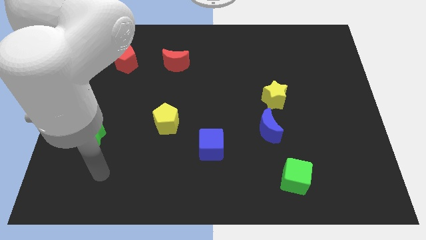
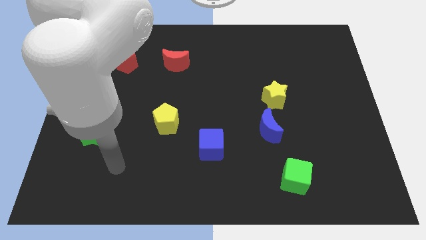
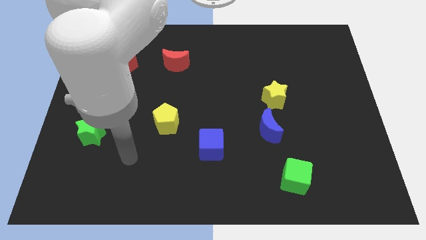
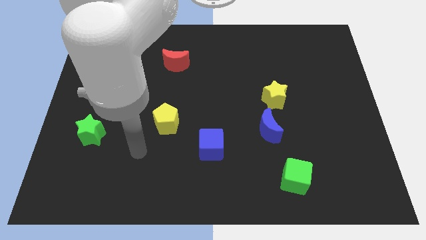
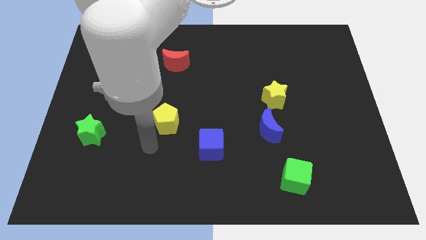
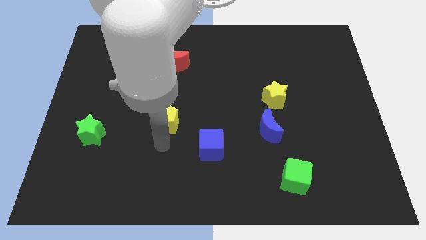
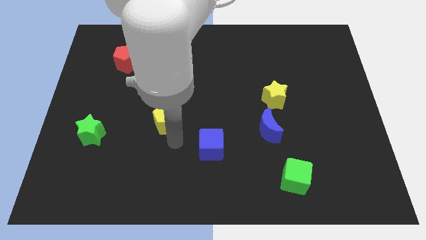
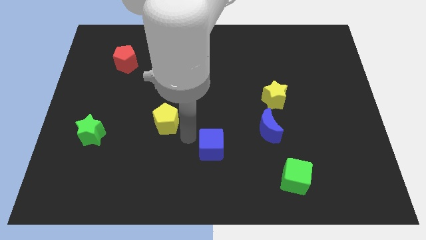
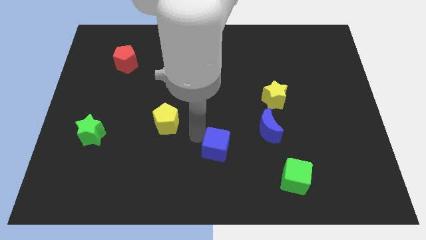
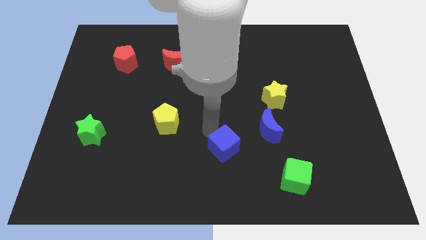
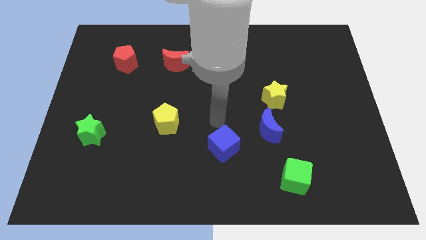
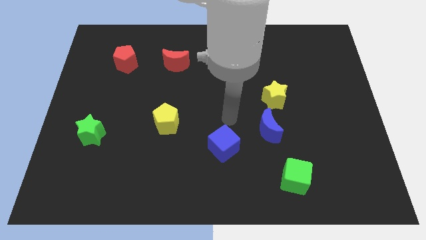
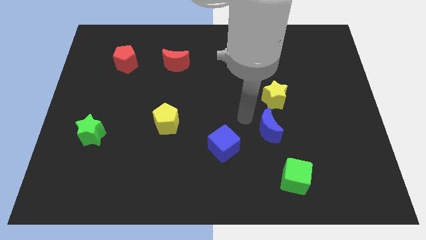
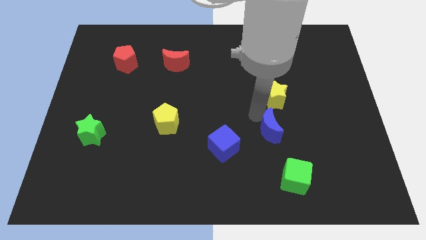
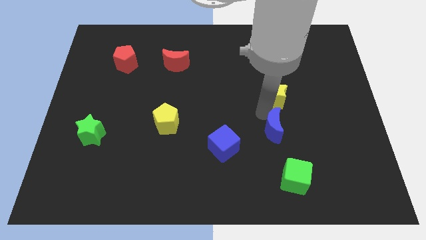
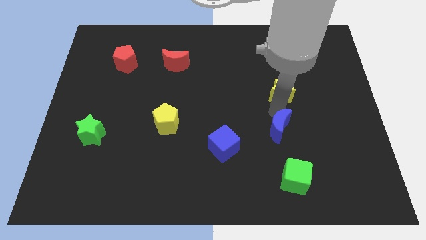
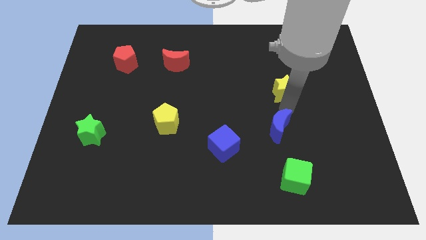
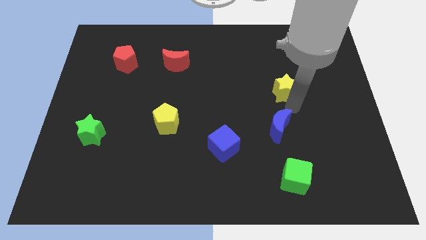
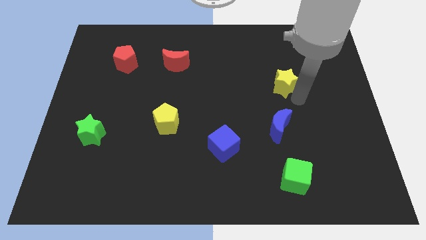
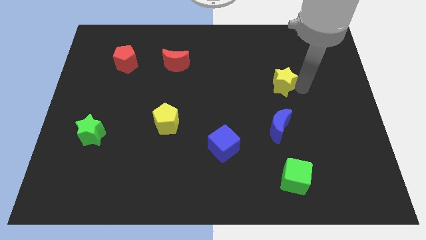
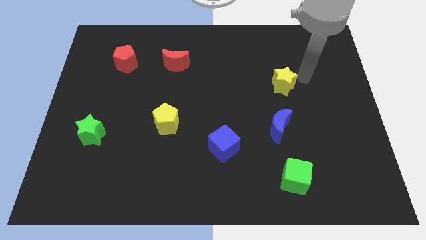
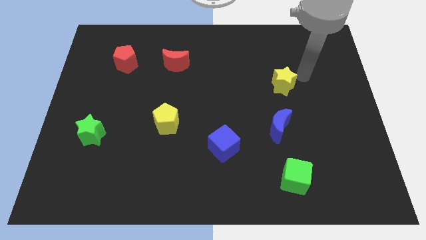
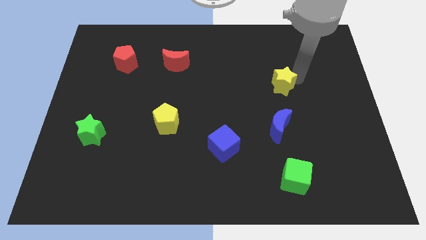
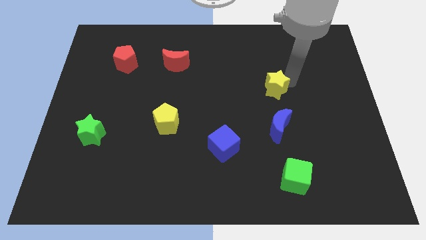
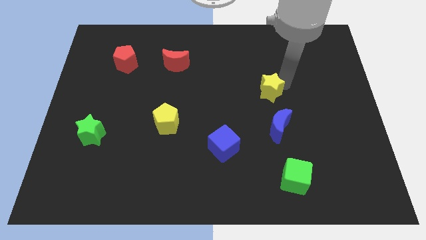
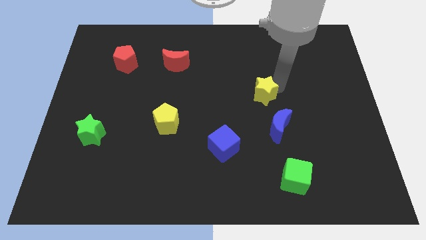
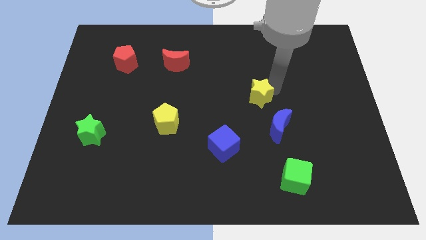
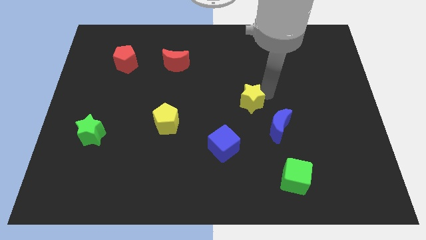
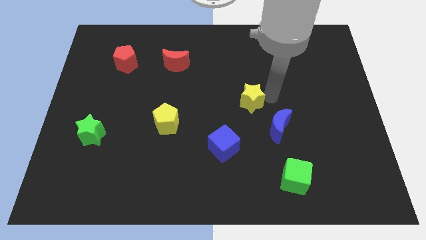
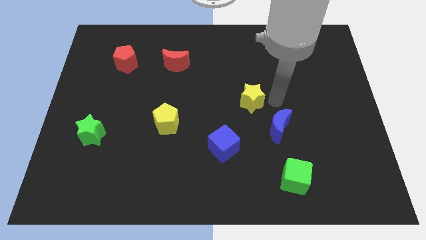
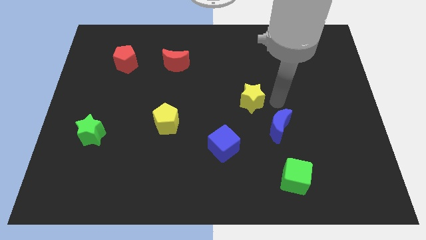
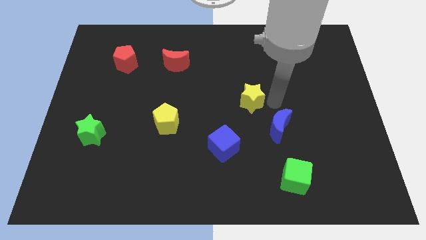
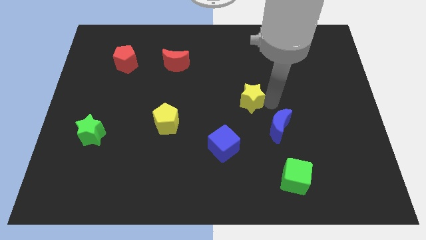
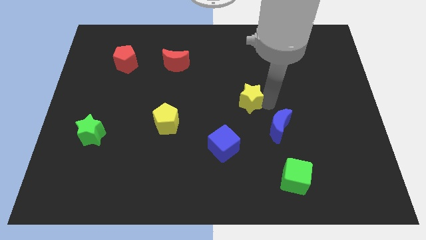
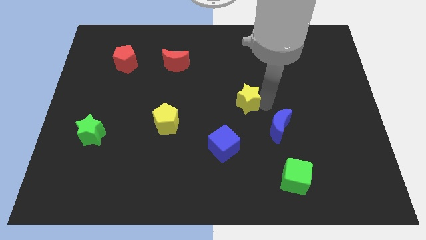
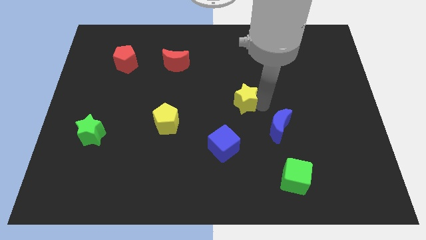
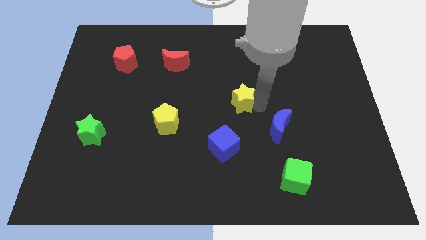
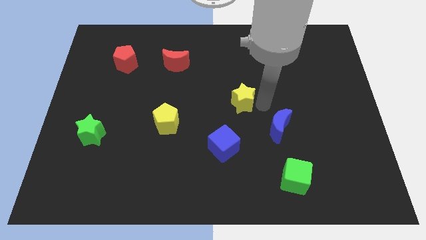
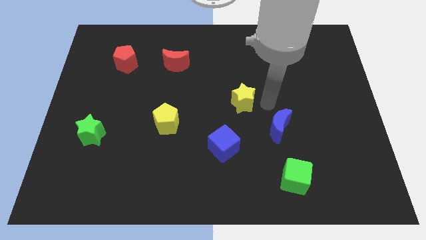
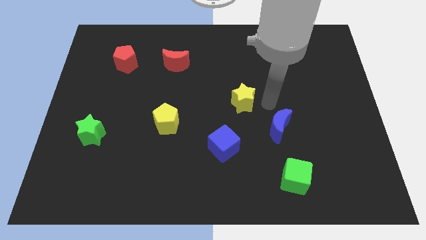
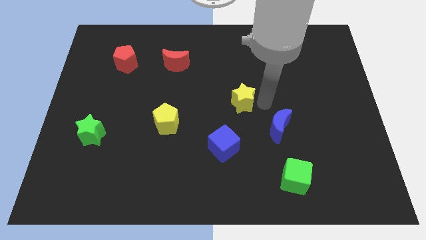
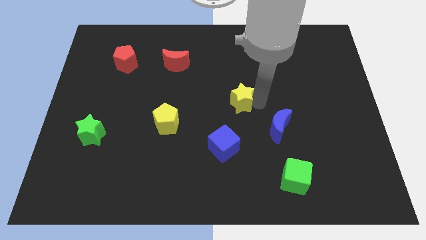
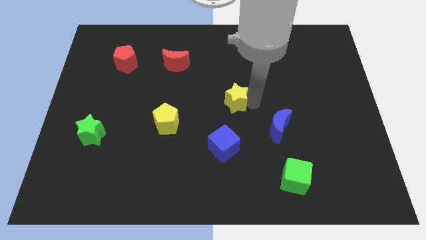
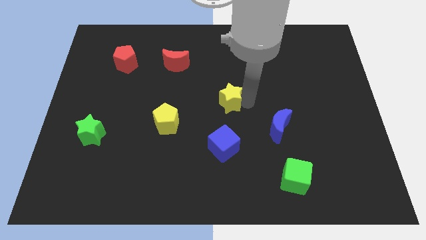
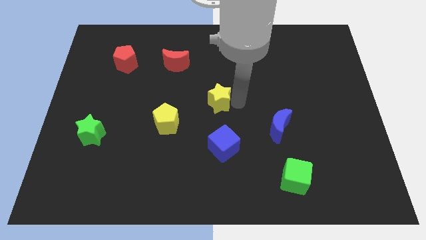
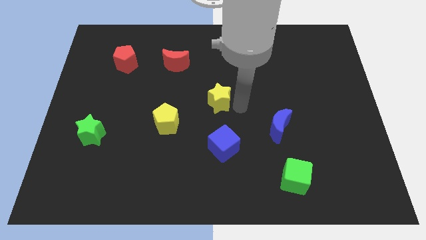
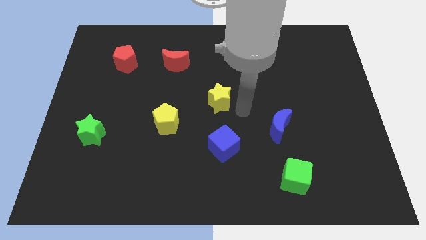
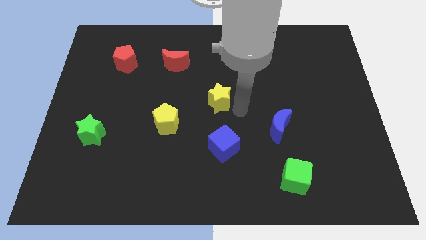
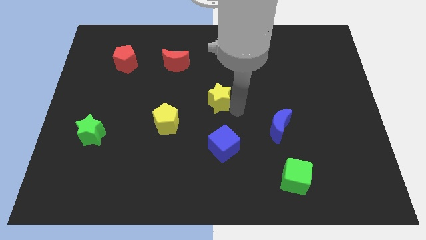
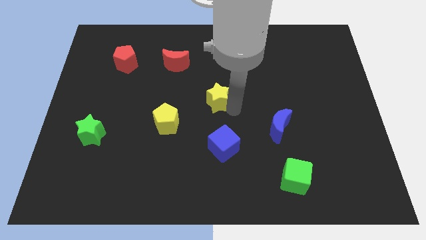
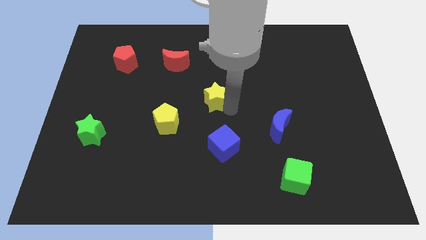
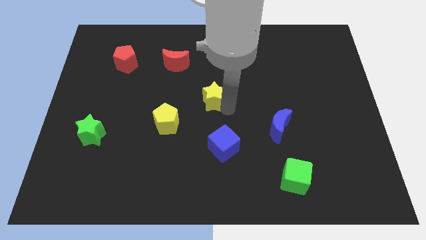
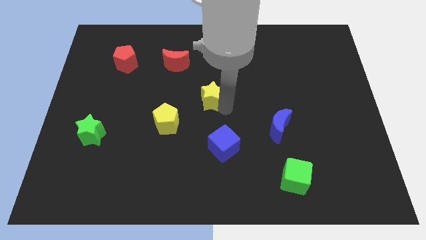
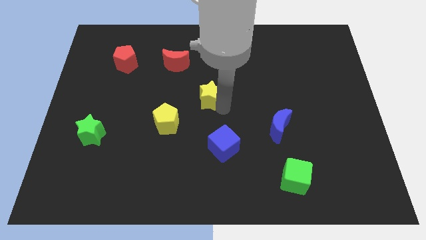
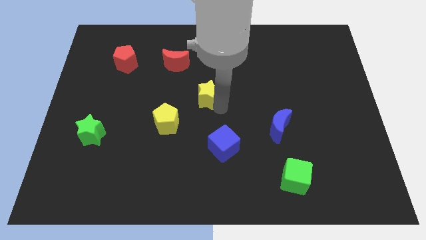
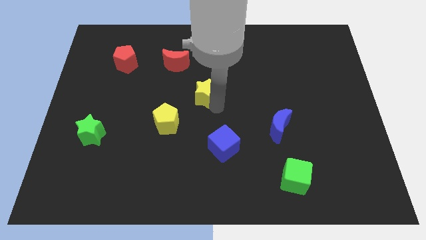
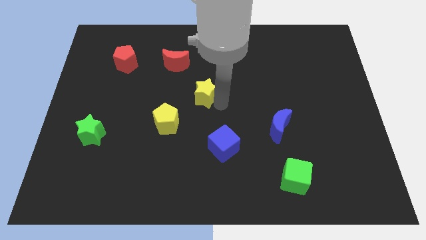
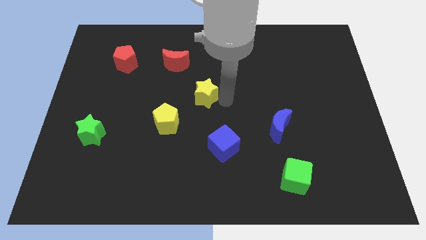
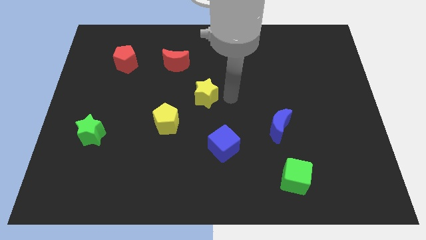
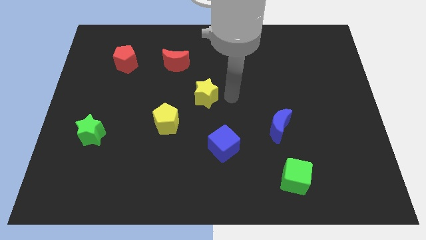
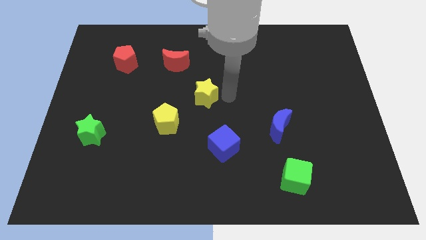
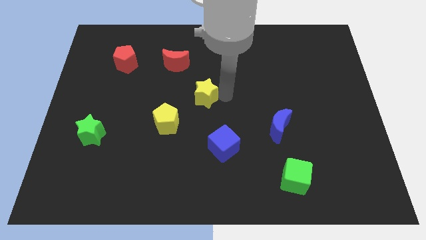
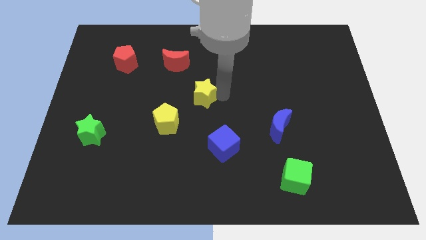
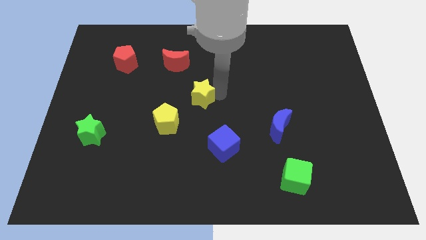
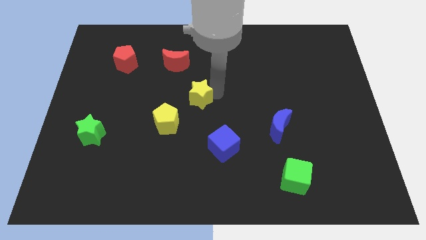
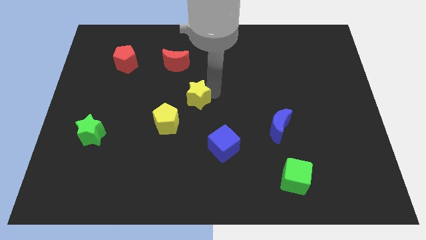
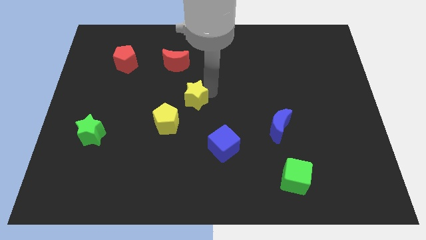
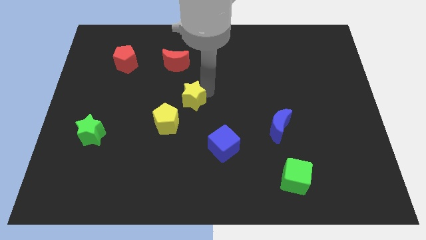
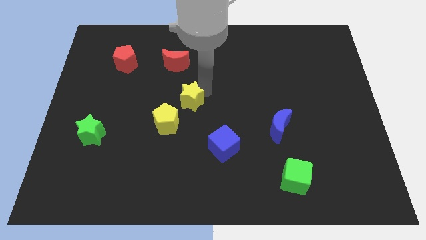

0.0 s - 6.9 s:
slide the yellow star to the left

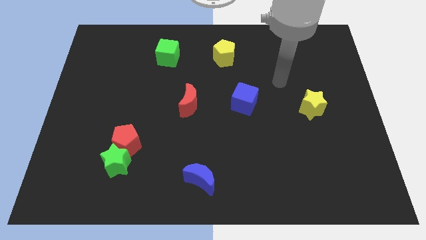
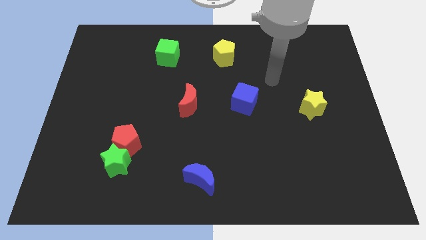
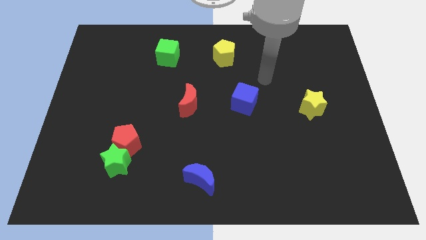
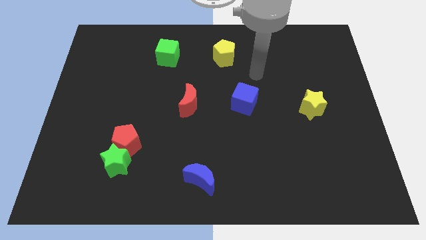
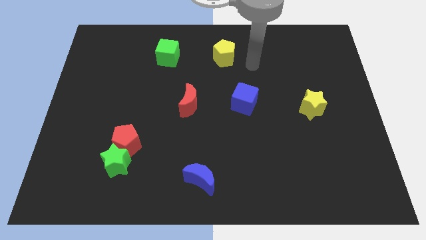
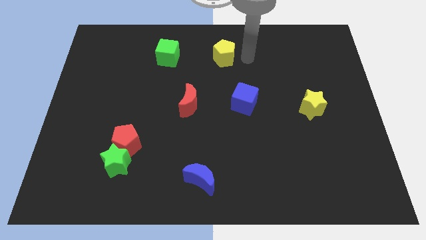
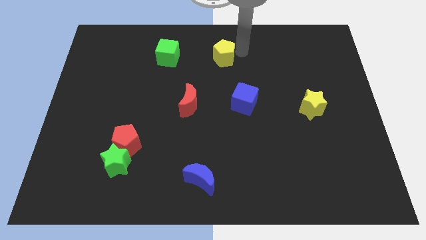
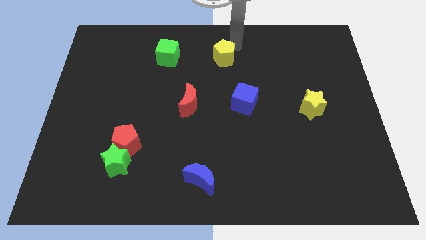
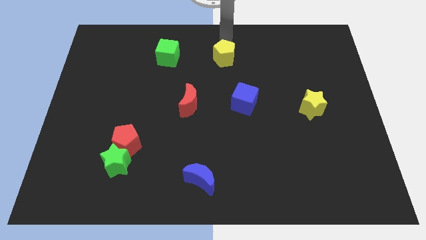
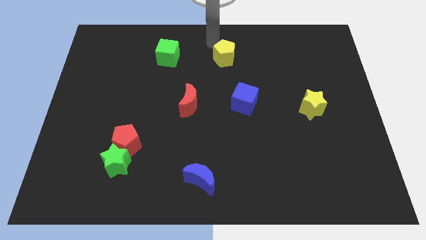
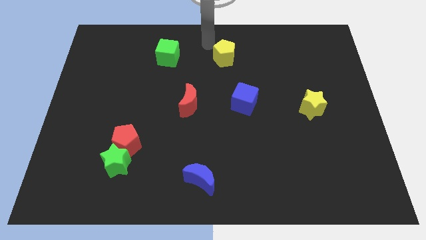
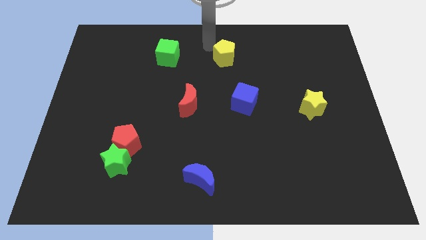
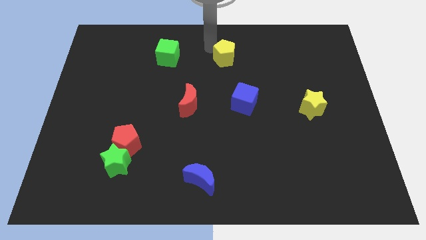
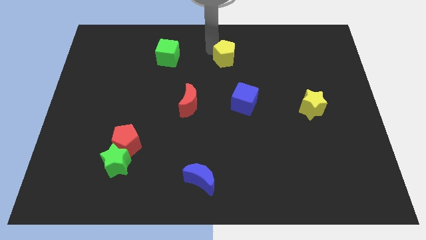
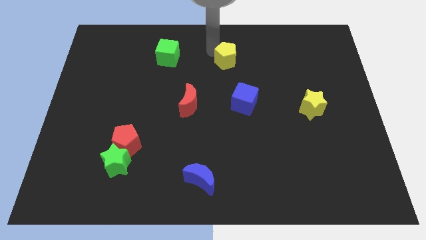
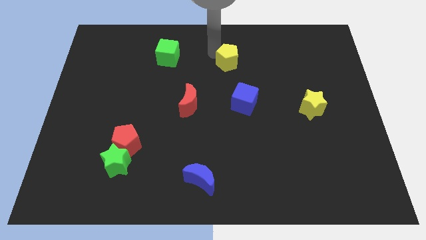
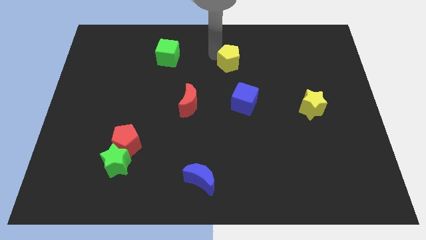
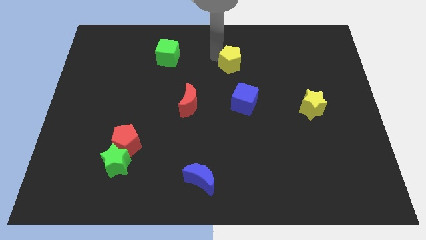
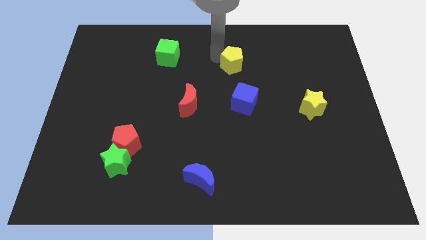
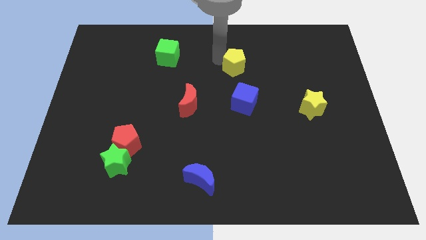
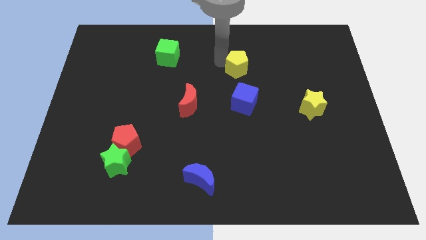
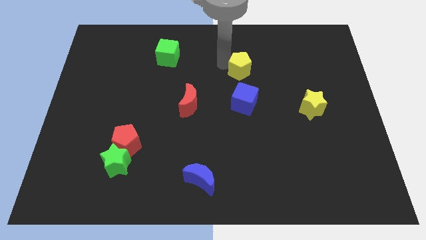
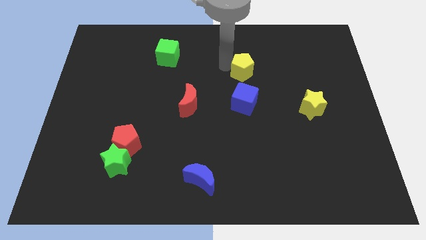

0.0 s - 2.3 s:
push the yellow pentagon slightly diagonally downwards and to the right
